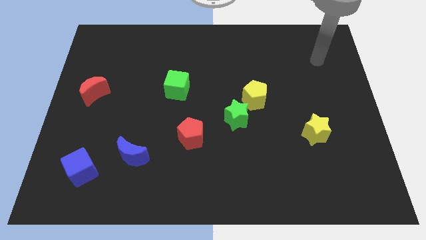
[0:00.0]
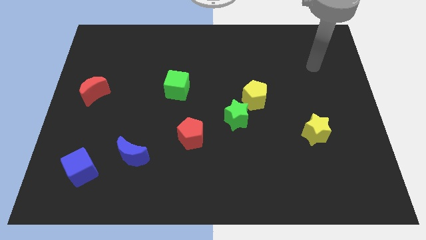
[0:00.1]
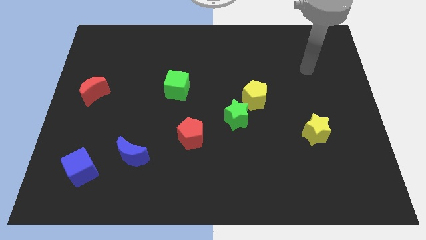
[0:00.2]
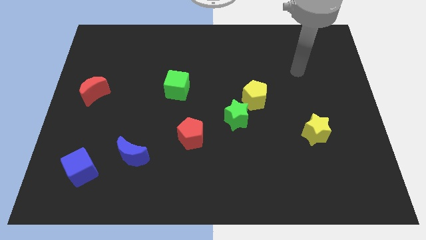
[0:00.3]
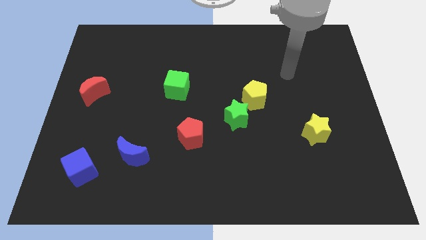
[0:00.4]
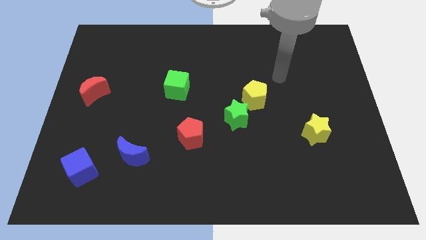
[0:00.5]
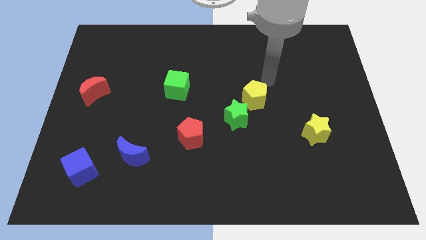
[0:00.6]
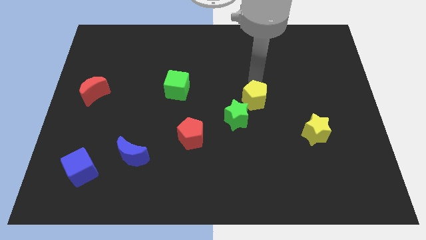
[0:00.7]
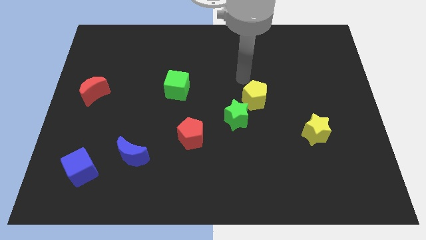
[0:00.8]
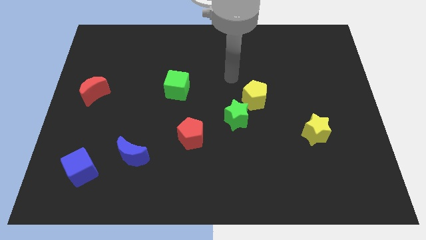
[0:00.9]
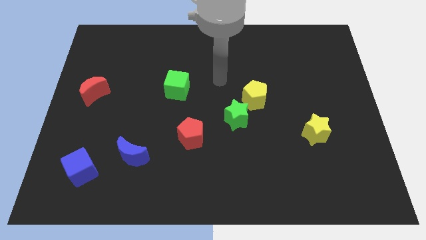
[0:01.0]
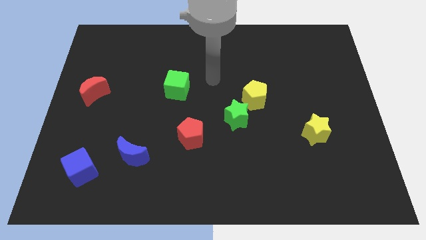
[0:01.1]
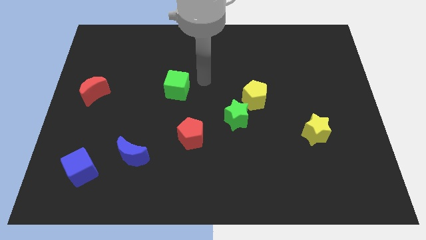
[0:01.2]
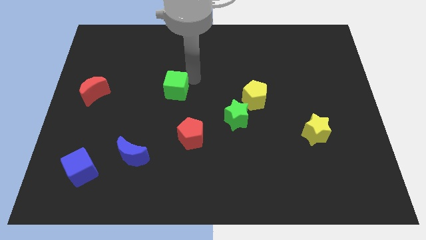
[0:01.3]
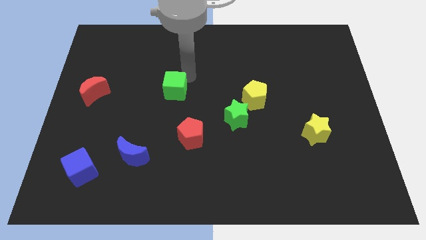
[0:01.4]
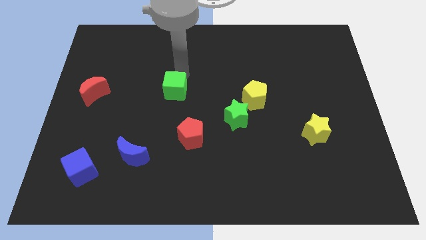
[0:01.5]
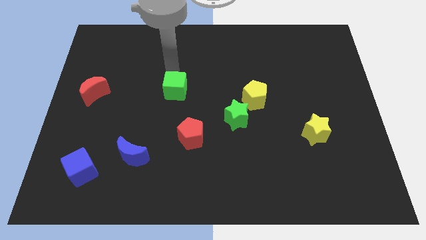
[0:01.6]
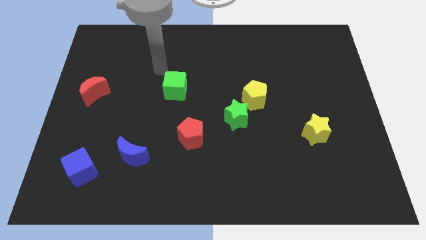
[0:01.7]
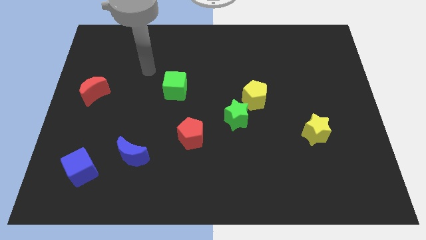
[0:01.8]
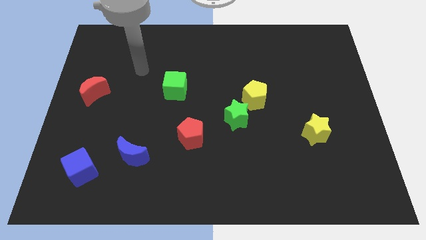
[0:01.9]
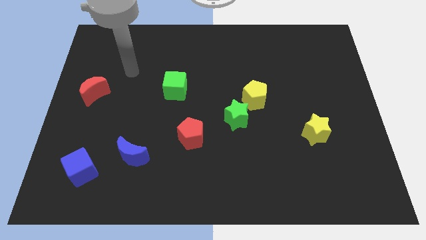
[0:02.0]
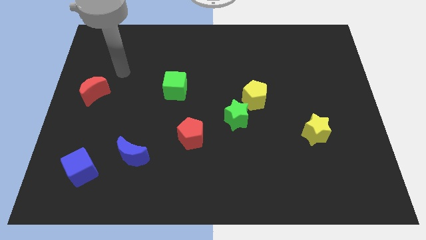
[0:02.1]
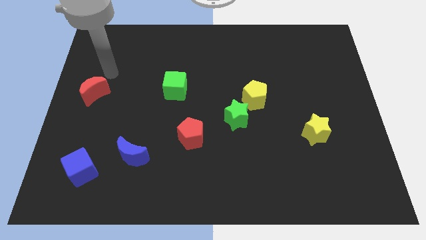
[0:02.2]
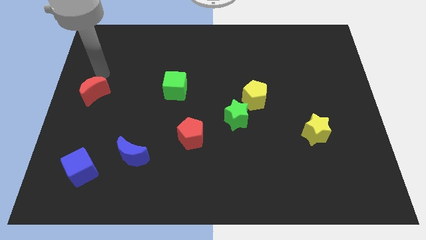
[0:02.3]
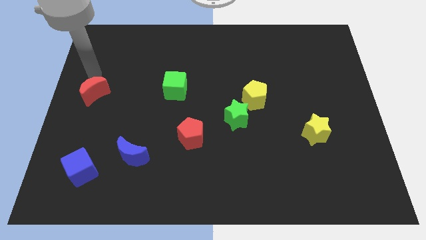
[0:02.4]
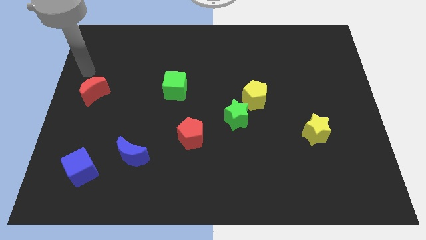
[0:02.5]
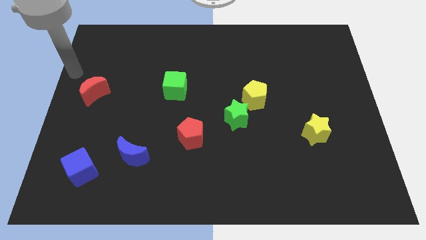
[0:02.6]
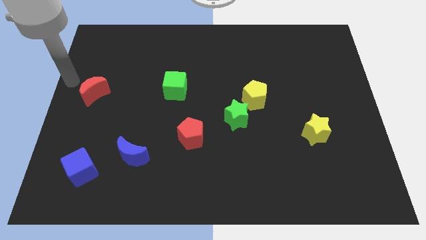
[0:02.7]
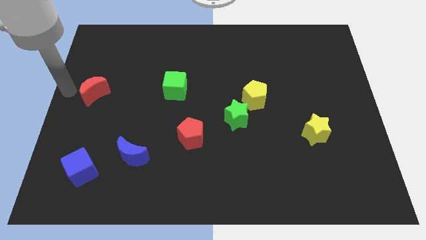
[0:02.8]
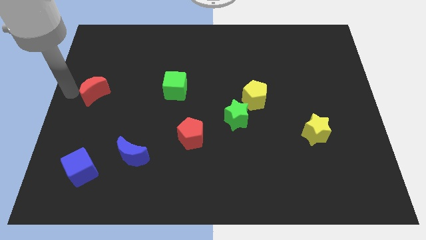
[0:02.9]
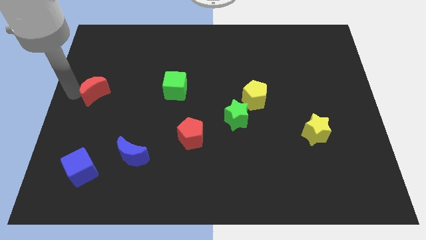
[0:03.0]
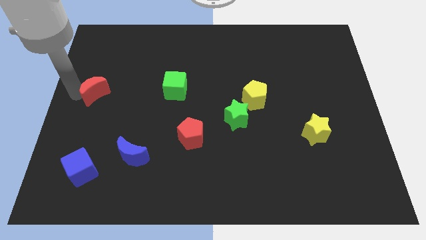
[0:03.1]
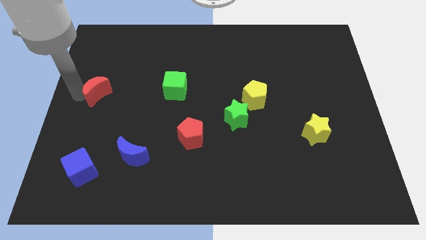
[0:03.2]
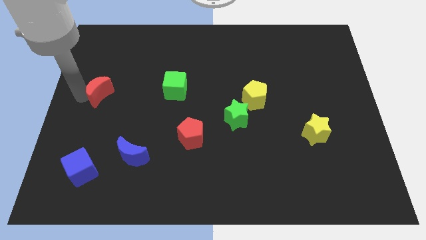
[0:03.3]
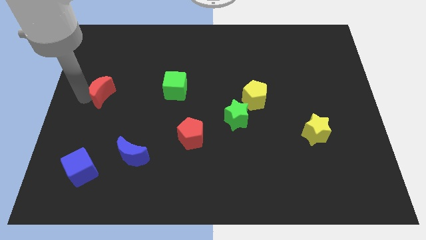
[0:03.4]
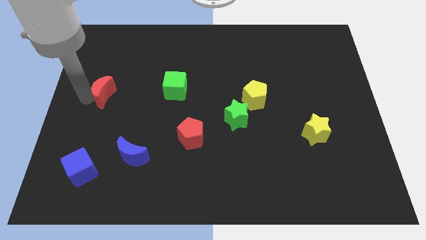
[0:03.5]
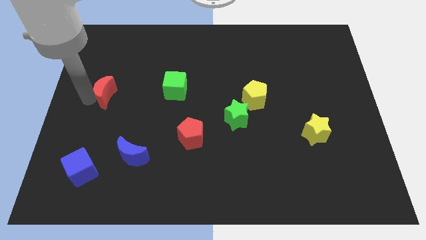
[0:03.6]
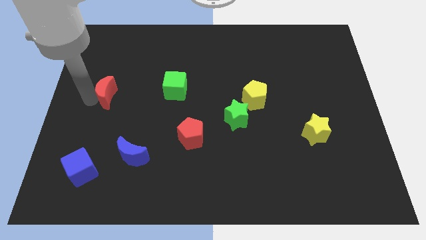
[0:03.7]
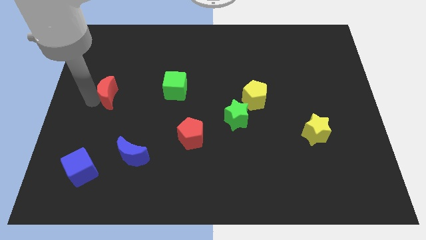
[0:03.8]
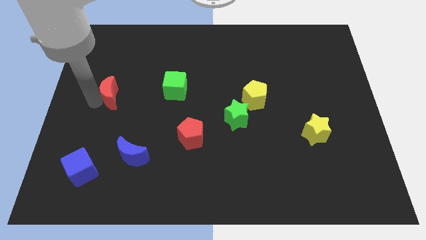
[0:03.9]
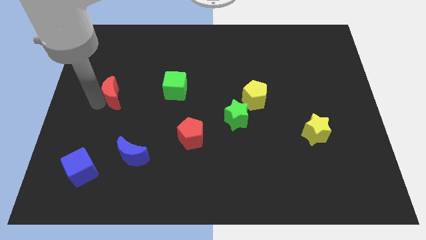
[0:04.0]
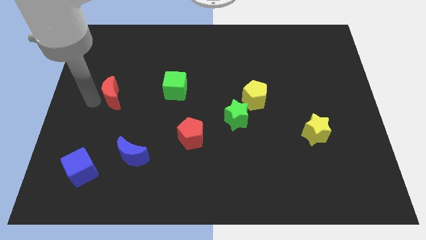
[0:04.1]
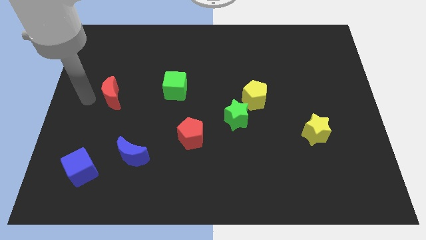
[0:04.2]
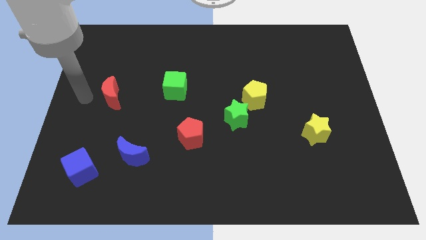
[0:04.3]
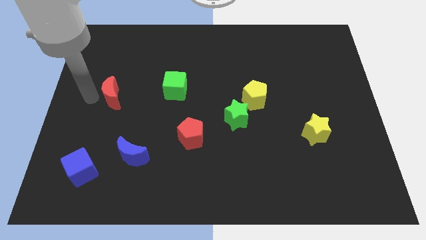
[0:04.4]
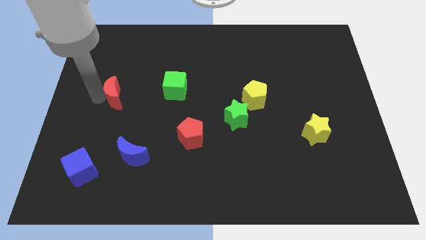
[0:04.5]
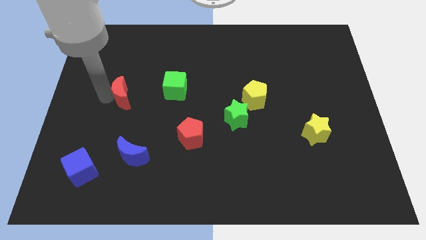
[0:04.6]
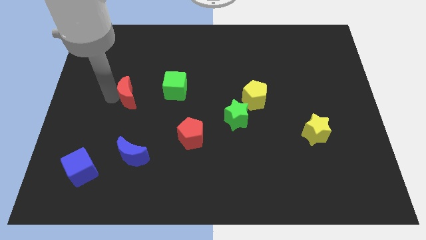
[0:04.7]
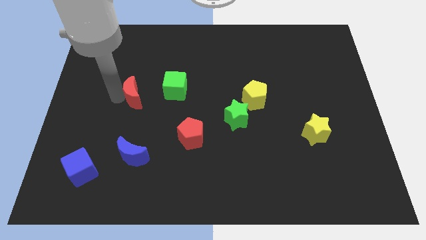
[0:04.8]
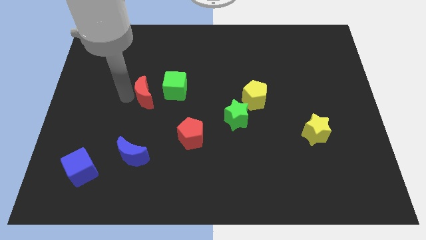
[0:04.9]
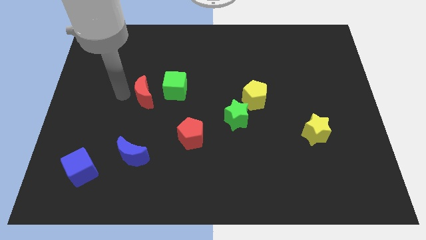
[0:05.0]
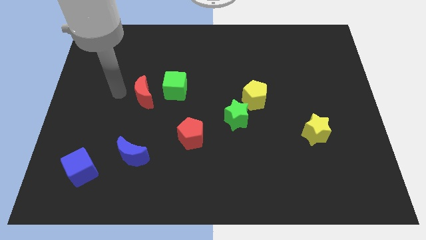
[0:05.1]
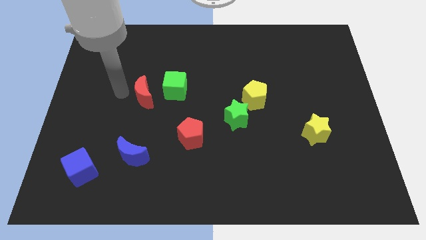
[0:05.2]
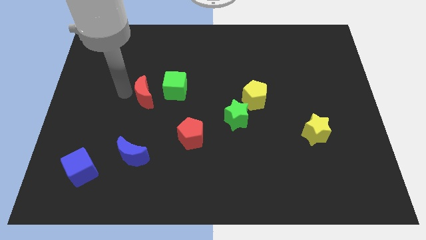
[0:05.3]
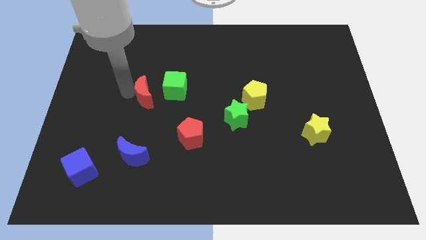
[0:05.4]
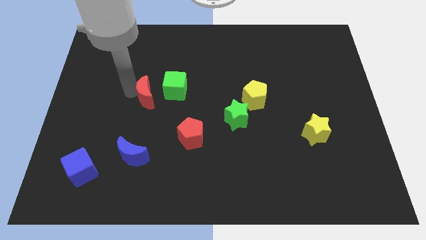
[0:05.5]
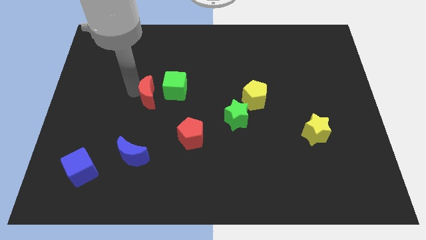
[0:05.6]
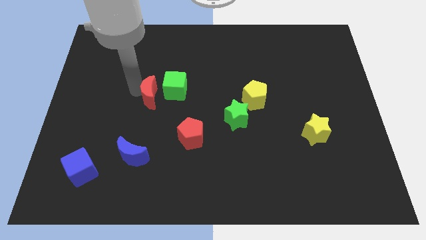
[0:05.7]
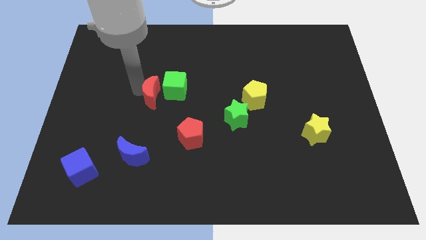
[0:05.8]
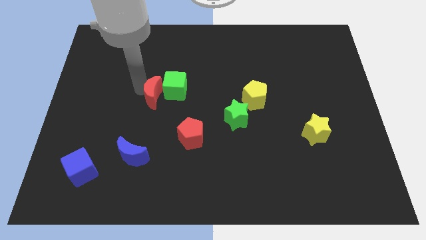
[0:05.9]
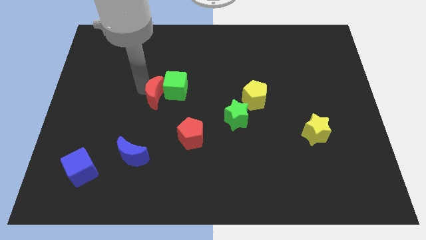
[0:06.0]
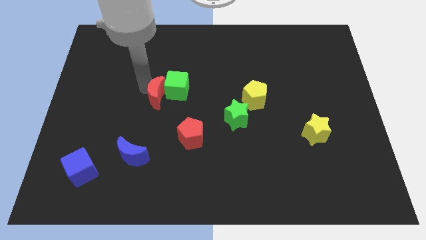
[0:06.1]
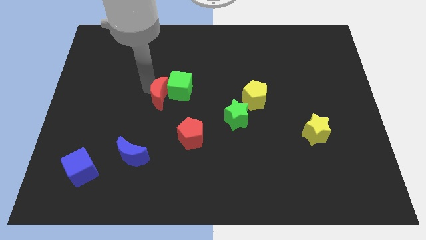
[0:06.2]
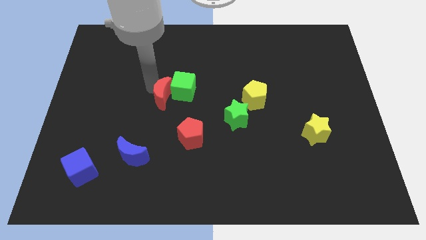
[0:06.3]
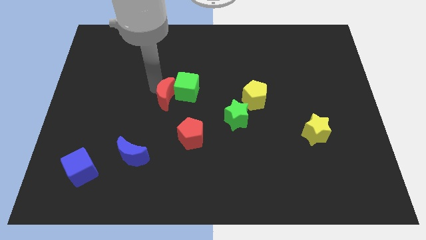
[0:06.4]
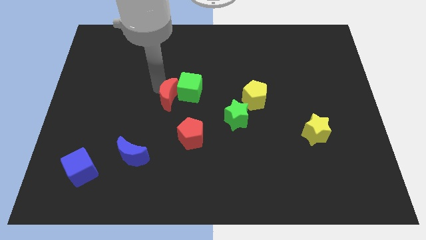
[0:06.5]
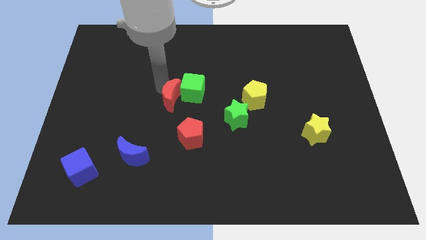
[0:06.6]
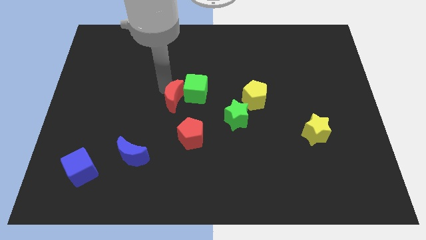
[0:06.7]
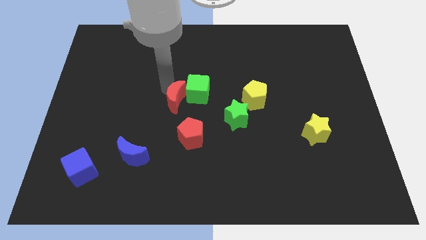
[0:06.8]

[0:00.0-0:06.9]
slide the red moon to the right

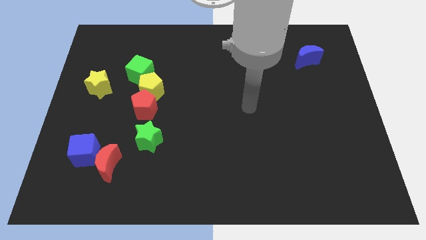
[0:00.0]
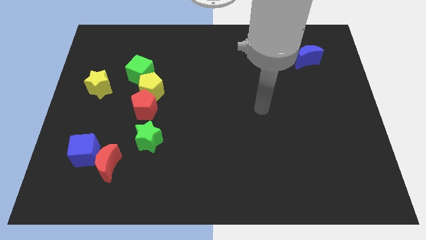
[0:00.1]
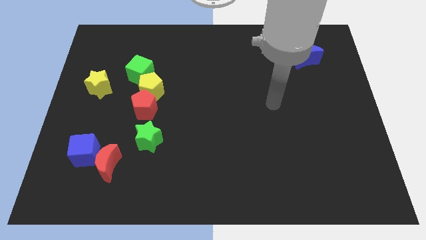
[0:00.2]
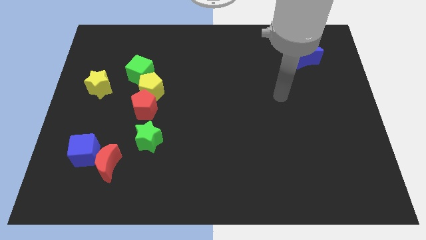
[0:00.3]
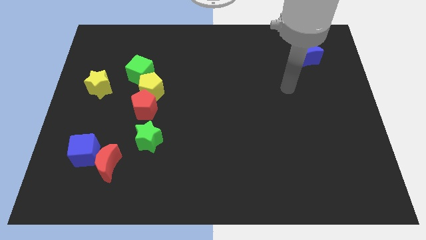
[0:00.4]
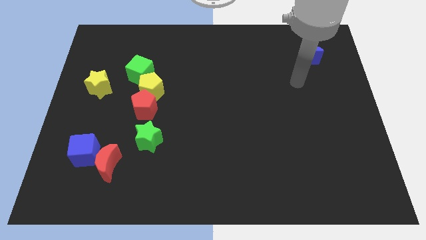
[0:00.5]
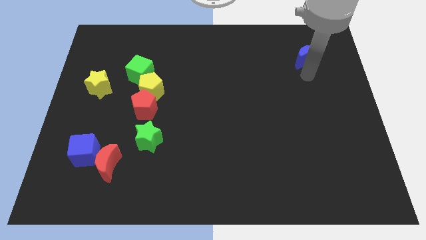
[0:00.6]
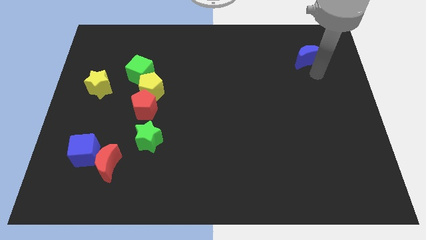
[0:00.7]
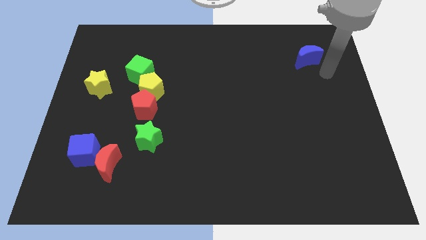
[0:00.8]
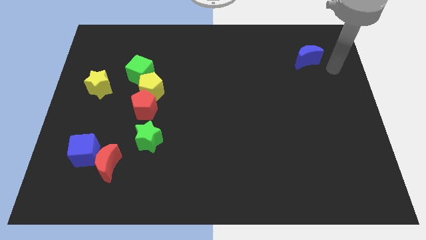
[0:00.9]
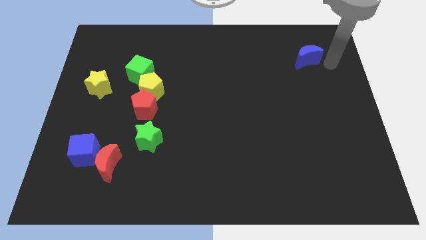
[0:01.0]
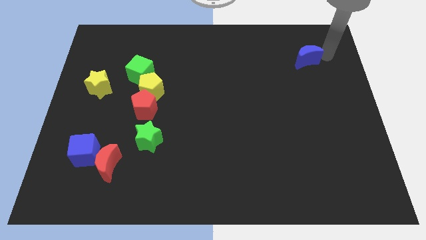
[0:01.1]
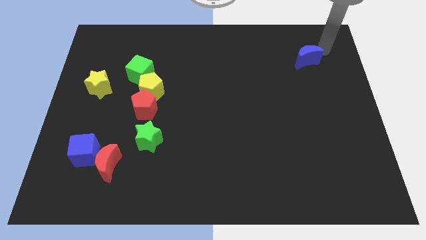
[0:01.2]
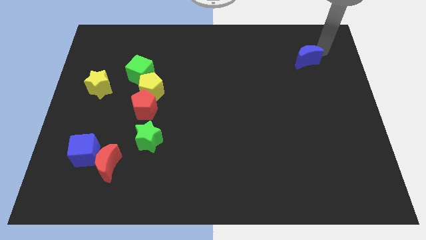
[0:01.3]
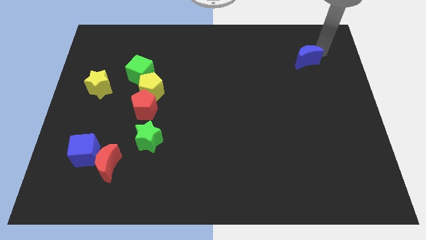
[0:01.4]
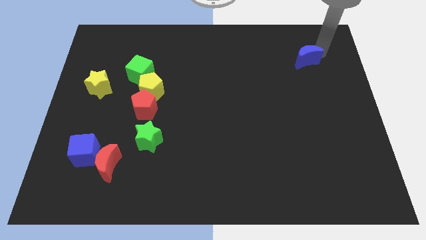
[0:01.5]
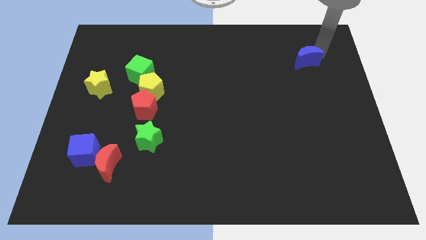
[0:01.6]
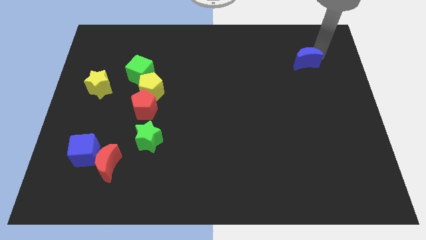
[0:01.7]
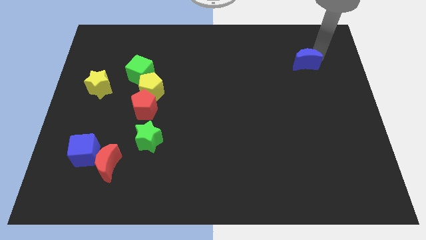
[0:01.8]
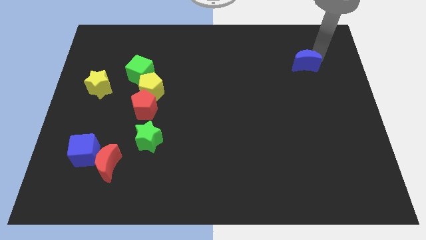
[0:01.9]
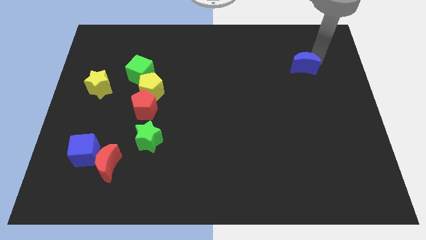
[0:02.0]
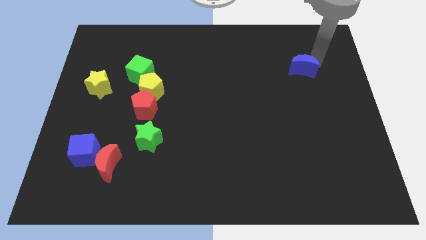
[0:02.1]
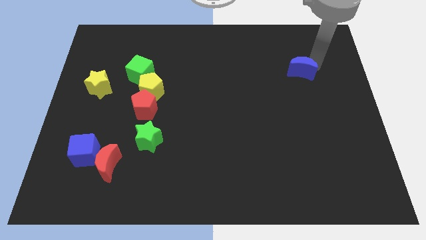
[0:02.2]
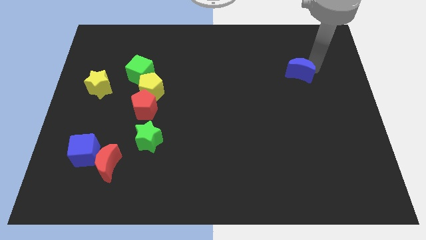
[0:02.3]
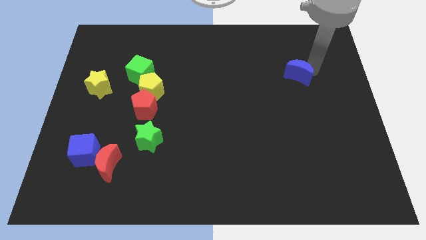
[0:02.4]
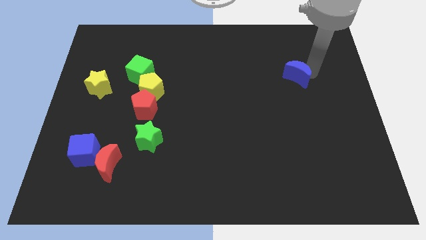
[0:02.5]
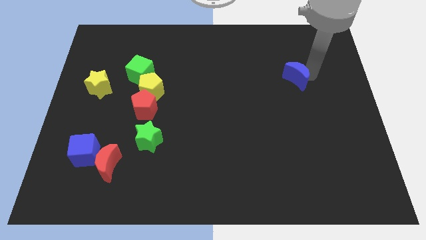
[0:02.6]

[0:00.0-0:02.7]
move the blue moon diagonally downwards and left a little
